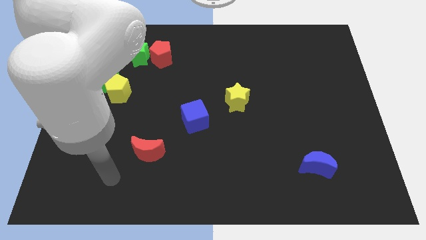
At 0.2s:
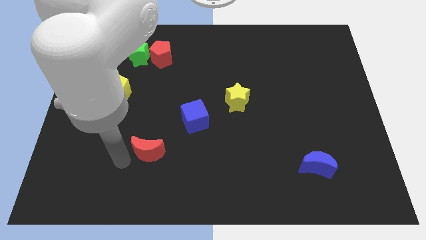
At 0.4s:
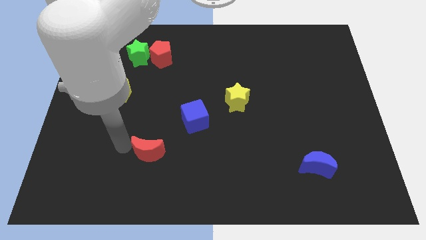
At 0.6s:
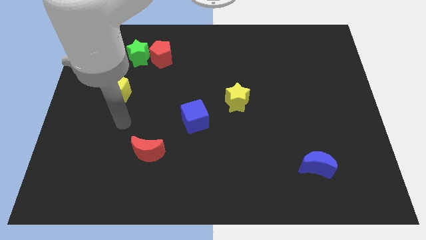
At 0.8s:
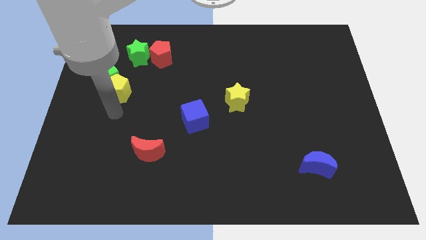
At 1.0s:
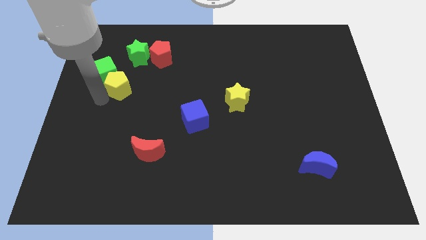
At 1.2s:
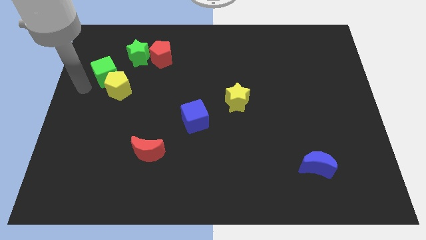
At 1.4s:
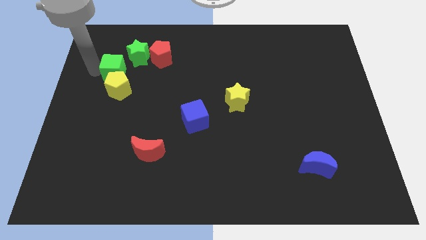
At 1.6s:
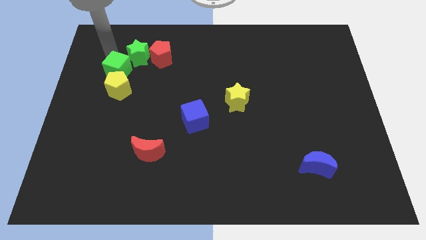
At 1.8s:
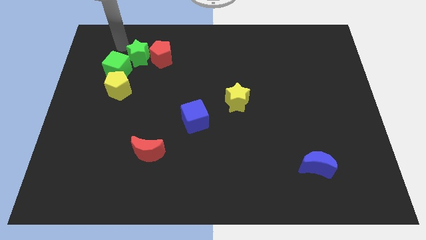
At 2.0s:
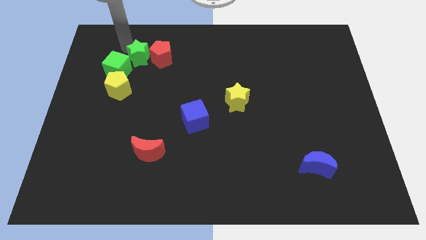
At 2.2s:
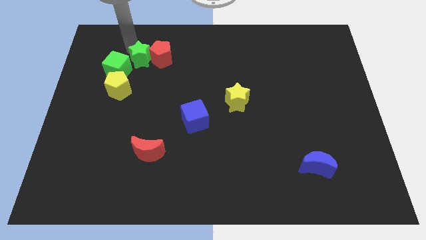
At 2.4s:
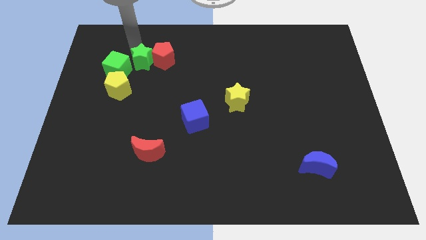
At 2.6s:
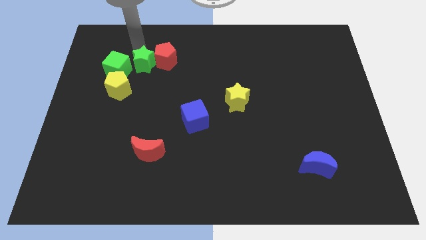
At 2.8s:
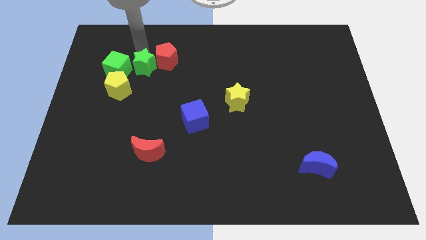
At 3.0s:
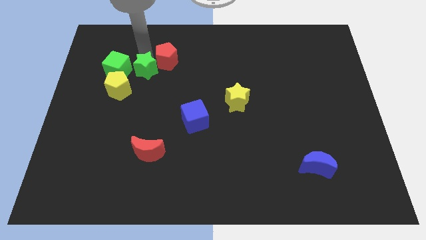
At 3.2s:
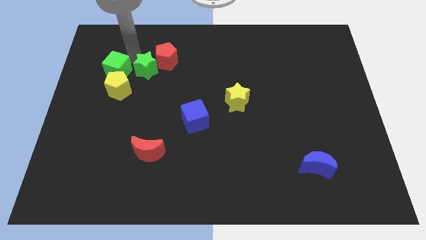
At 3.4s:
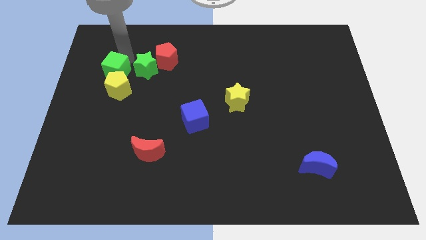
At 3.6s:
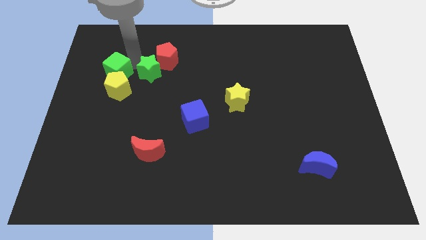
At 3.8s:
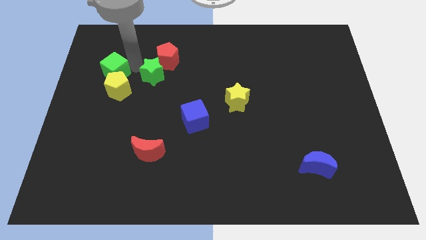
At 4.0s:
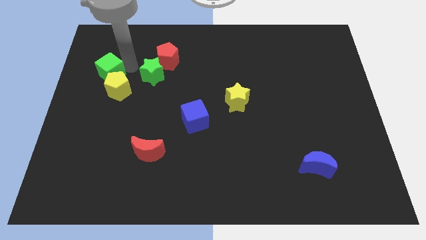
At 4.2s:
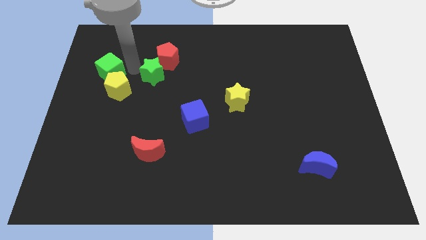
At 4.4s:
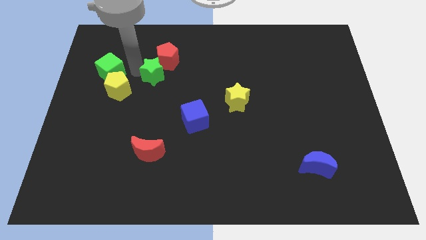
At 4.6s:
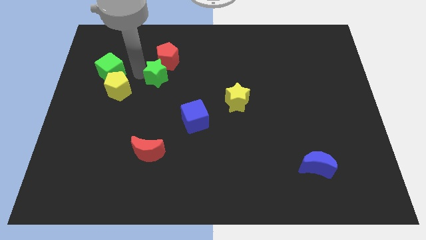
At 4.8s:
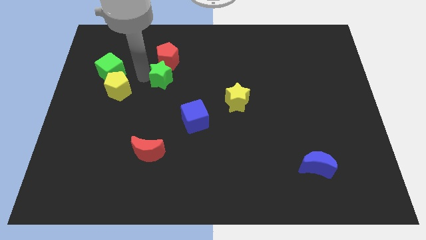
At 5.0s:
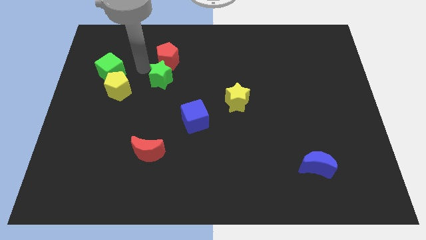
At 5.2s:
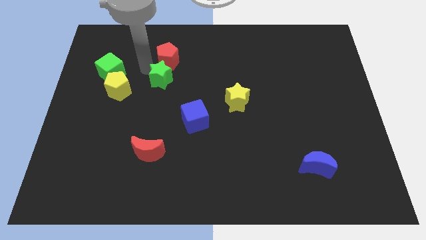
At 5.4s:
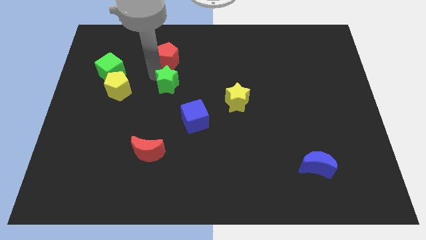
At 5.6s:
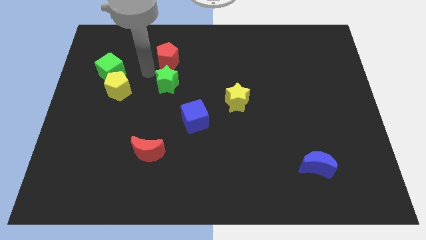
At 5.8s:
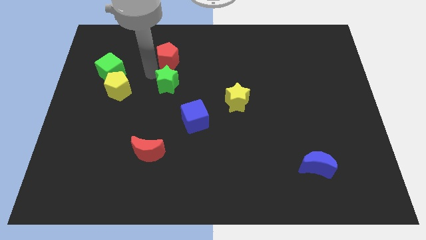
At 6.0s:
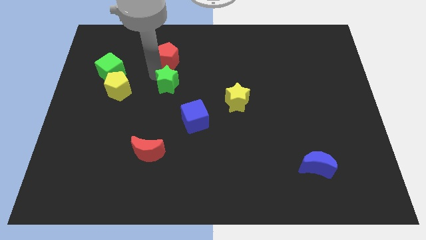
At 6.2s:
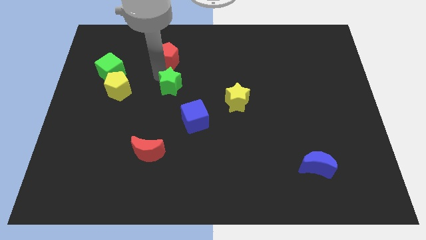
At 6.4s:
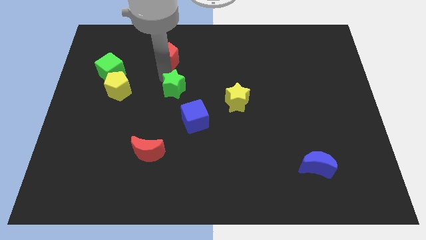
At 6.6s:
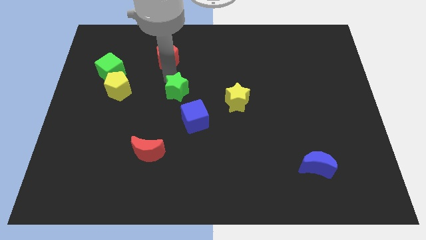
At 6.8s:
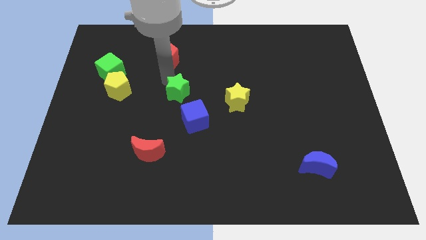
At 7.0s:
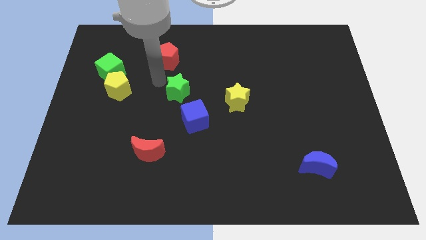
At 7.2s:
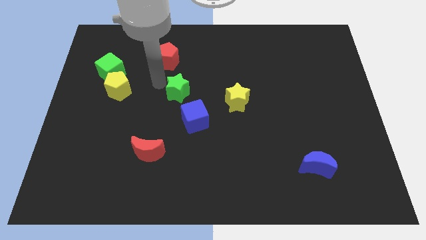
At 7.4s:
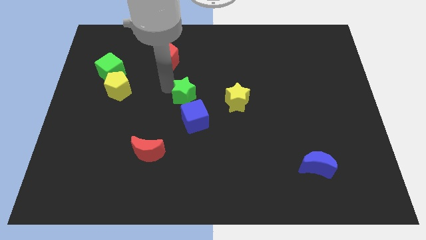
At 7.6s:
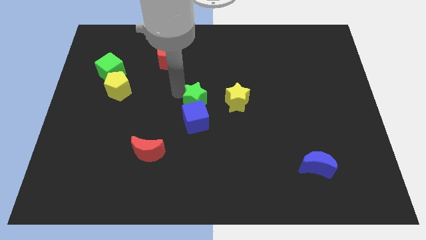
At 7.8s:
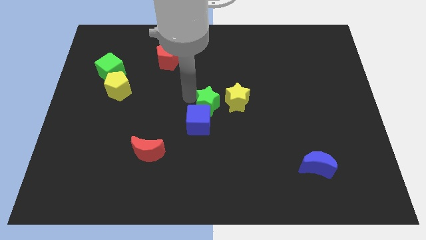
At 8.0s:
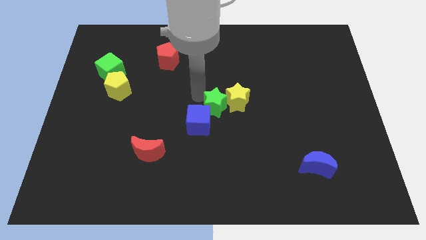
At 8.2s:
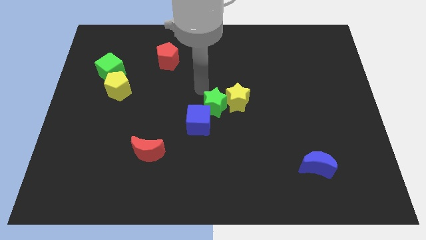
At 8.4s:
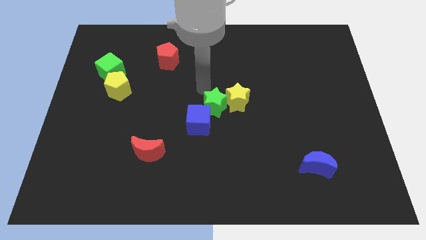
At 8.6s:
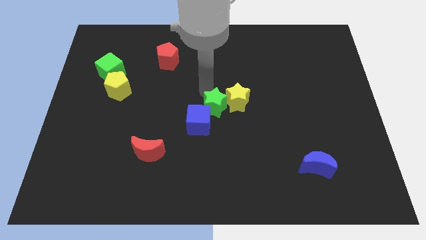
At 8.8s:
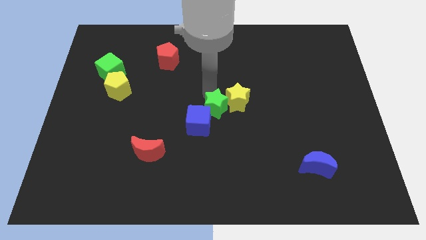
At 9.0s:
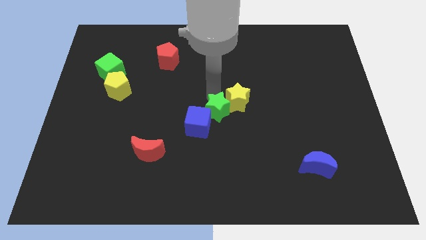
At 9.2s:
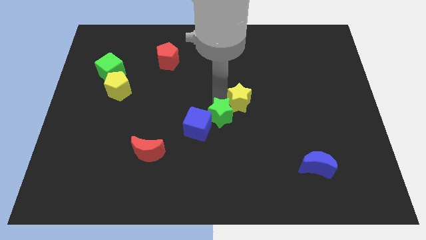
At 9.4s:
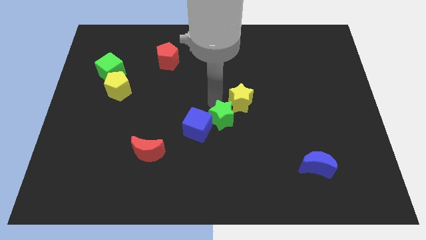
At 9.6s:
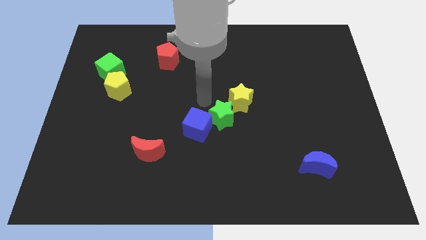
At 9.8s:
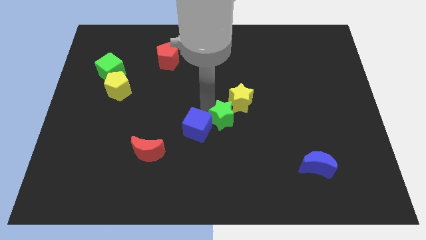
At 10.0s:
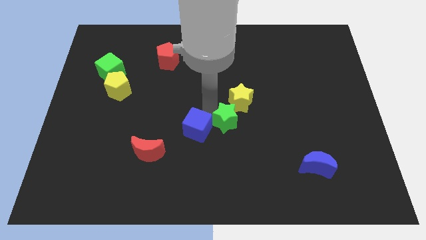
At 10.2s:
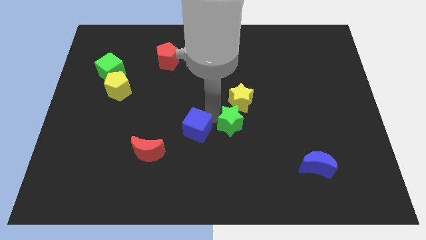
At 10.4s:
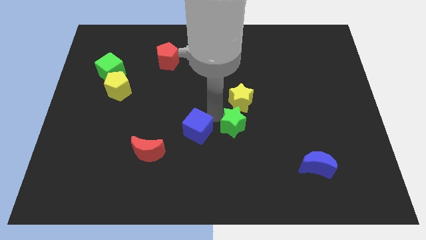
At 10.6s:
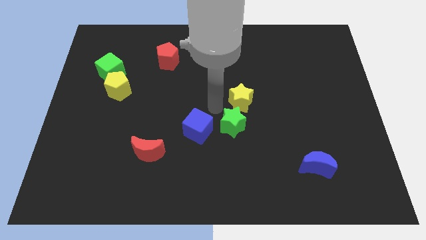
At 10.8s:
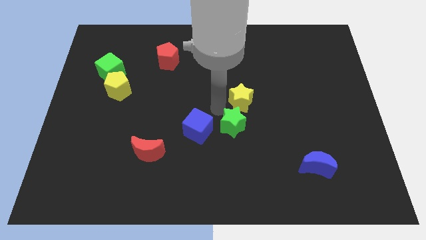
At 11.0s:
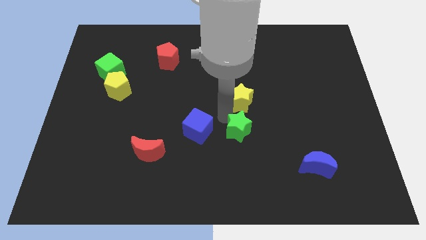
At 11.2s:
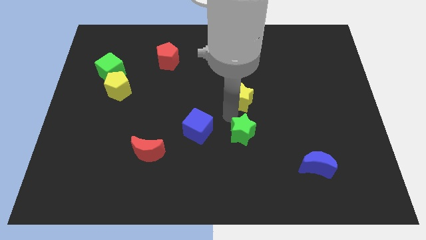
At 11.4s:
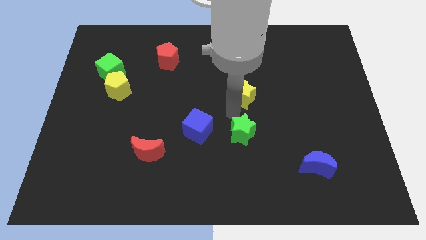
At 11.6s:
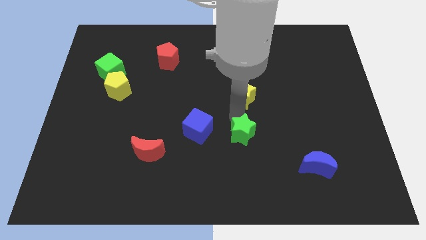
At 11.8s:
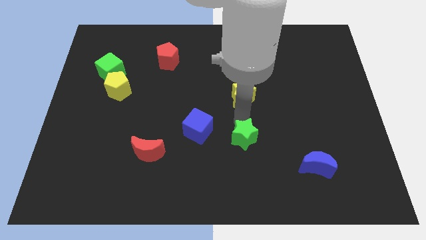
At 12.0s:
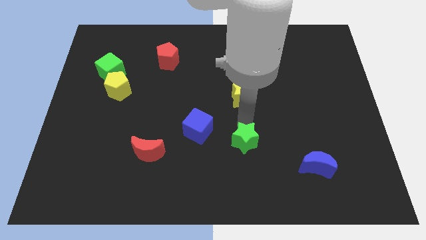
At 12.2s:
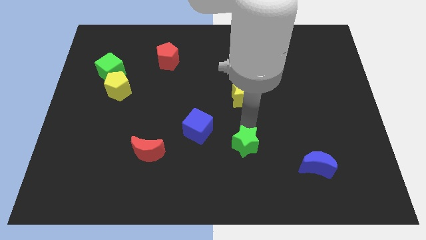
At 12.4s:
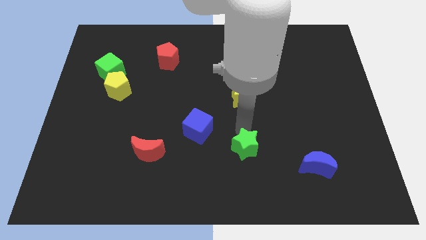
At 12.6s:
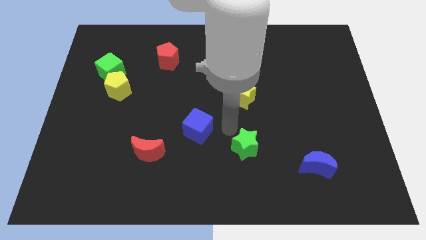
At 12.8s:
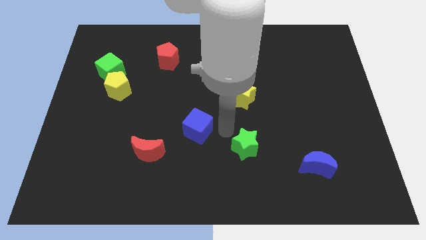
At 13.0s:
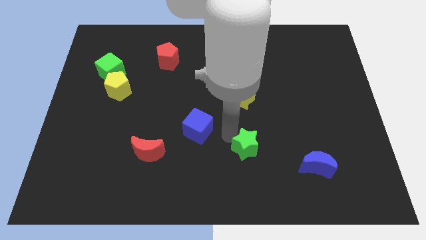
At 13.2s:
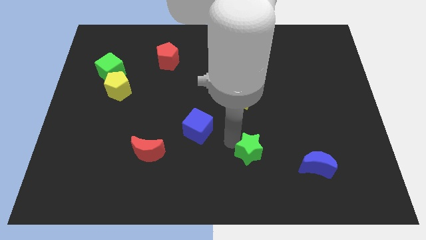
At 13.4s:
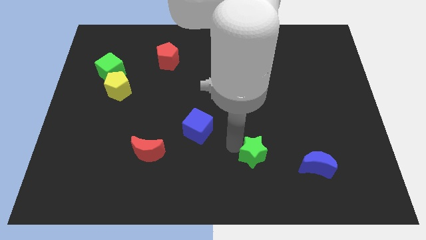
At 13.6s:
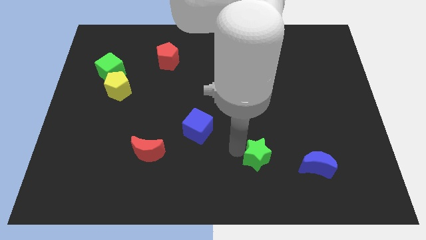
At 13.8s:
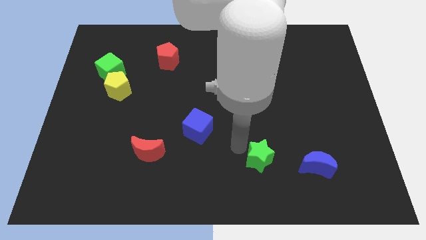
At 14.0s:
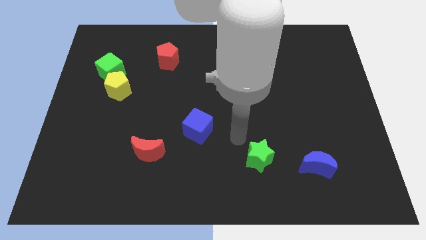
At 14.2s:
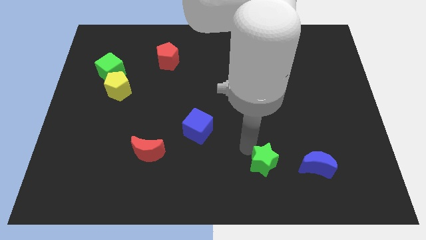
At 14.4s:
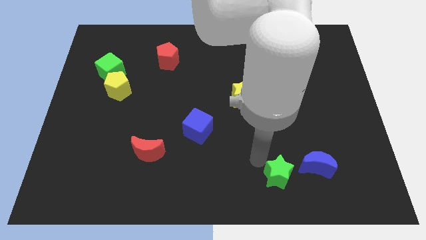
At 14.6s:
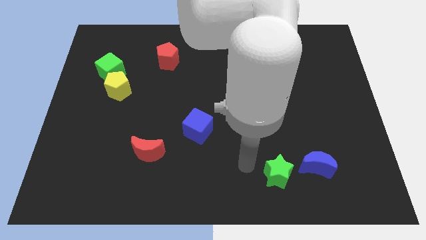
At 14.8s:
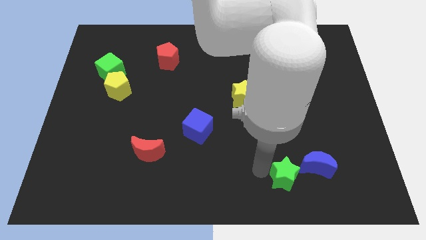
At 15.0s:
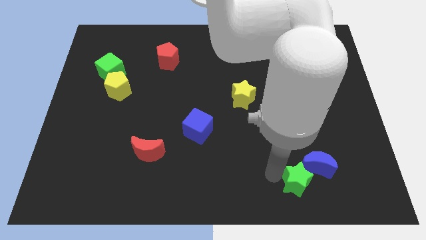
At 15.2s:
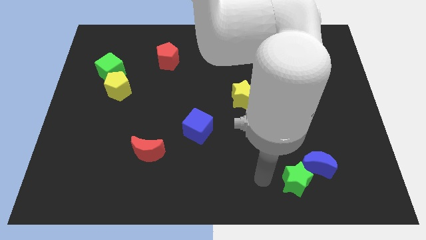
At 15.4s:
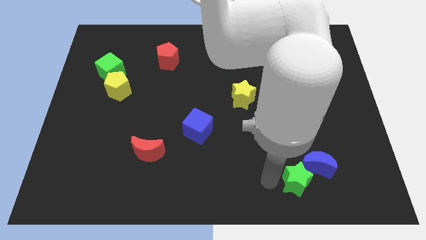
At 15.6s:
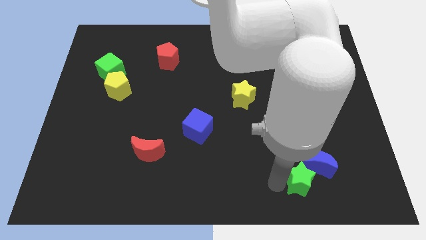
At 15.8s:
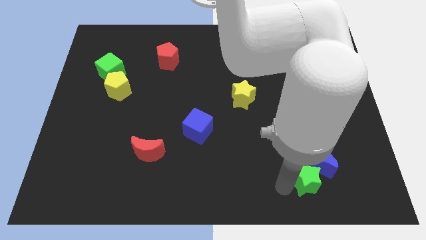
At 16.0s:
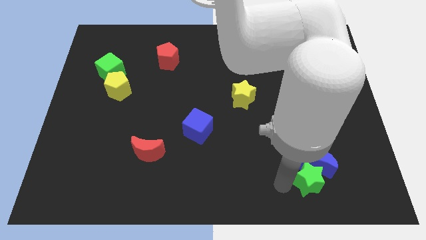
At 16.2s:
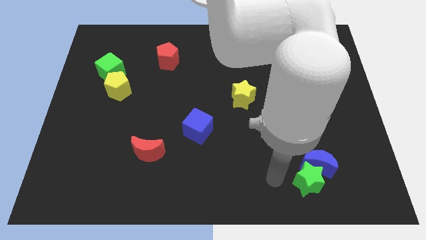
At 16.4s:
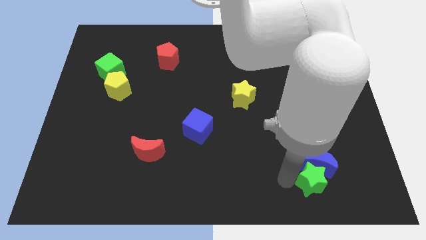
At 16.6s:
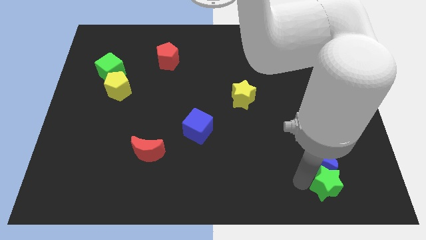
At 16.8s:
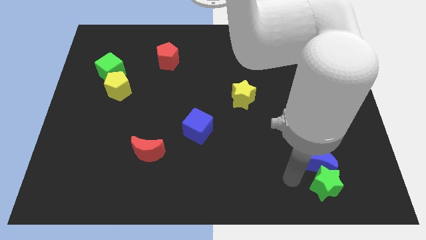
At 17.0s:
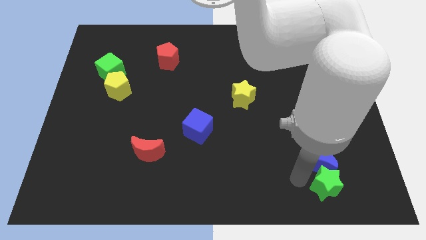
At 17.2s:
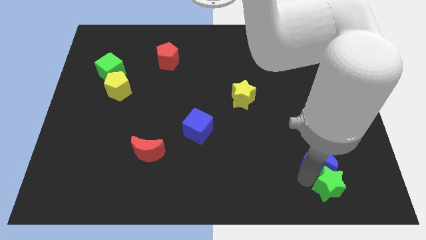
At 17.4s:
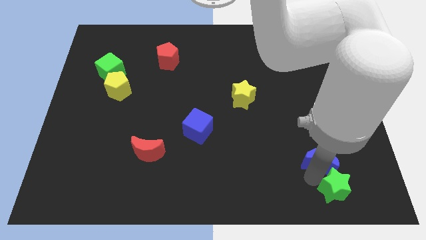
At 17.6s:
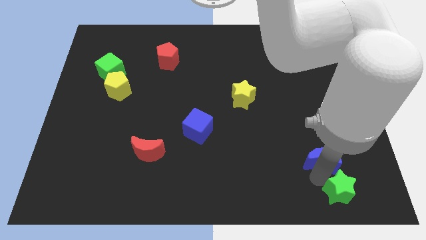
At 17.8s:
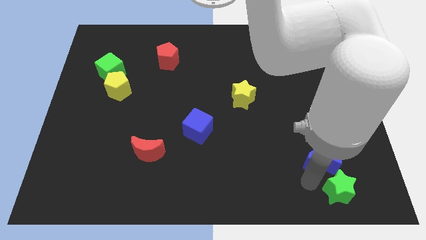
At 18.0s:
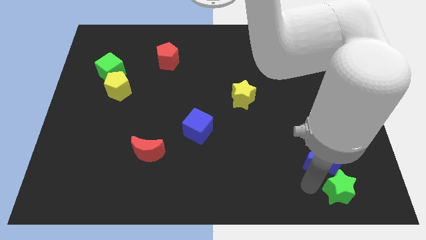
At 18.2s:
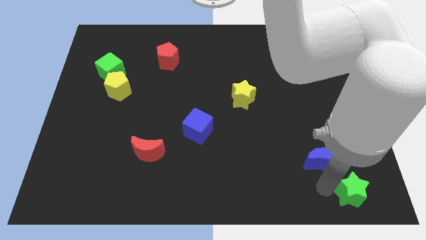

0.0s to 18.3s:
slide the green star to the lower right corner
